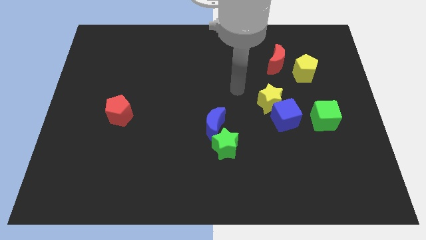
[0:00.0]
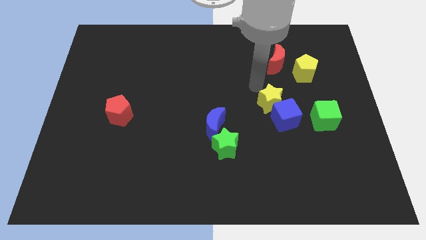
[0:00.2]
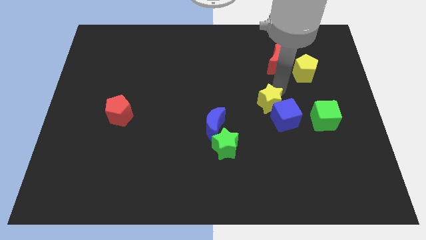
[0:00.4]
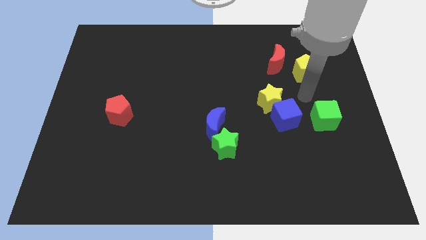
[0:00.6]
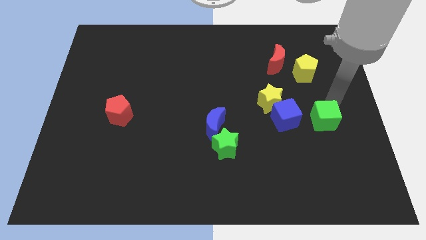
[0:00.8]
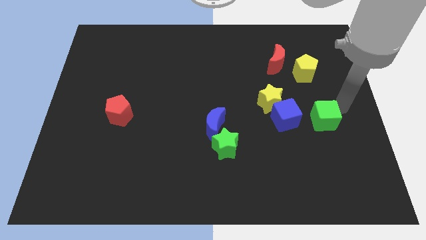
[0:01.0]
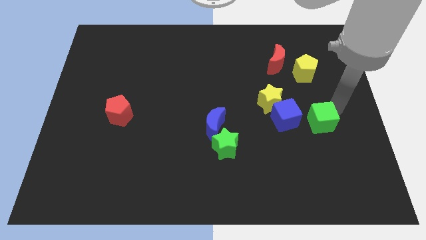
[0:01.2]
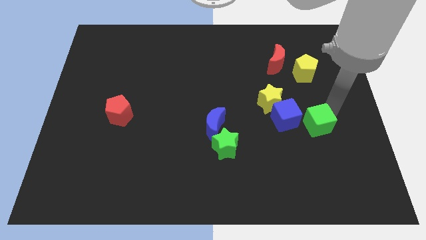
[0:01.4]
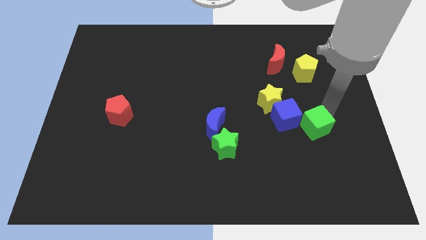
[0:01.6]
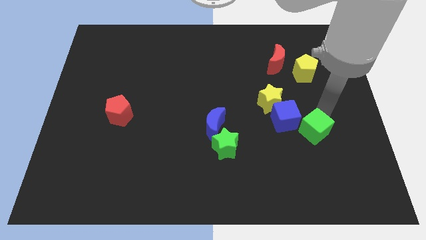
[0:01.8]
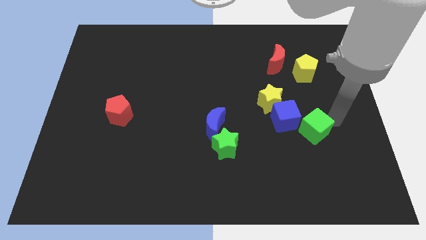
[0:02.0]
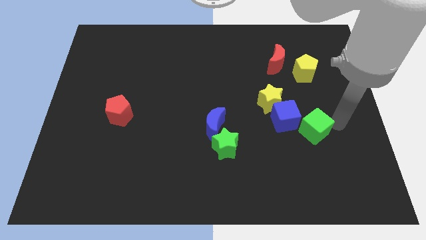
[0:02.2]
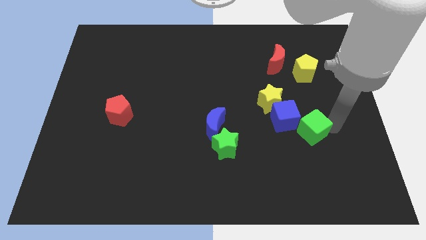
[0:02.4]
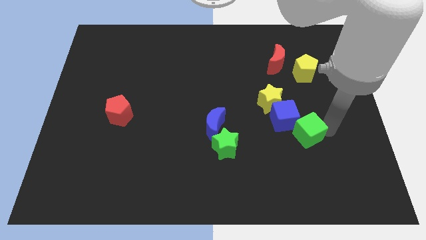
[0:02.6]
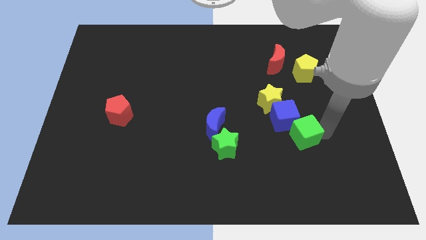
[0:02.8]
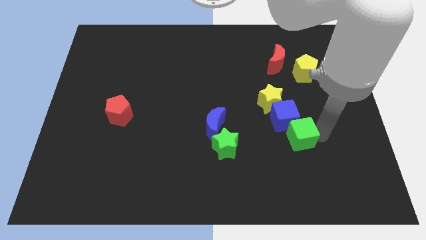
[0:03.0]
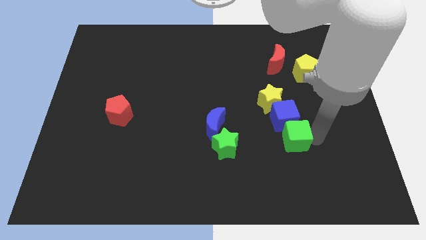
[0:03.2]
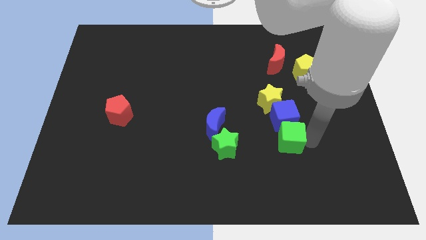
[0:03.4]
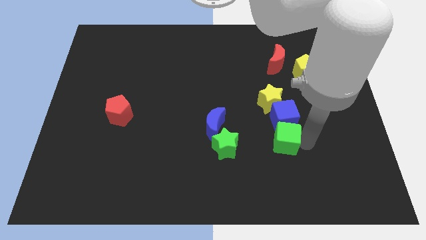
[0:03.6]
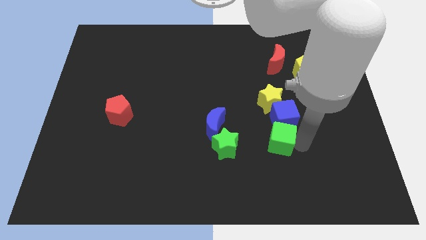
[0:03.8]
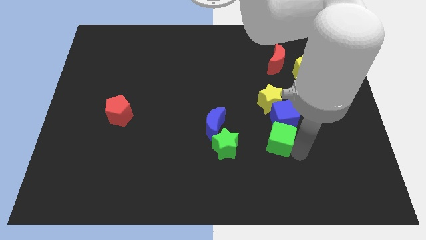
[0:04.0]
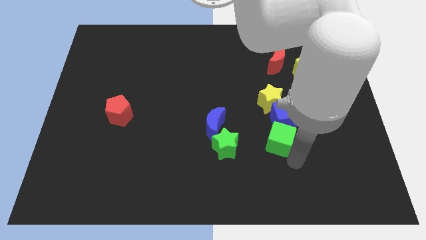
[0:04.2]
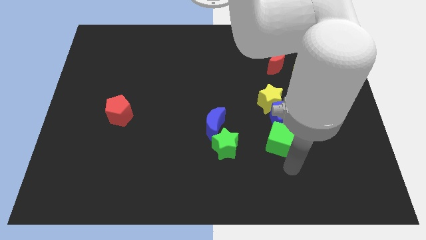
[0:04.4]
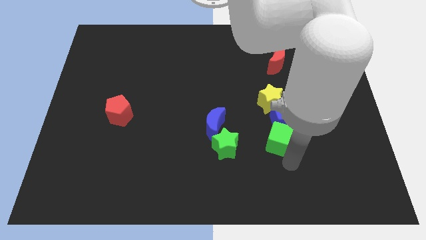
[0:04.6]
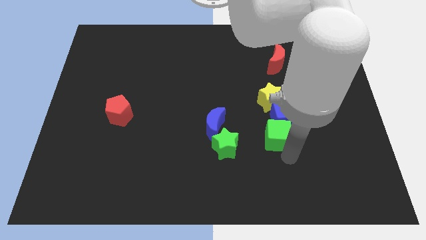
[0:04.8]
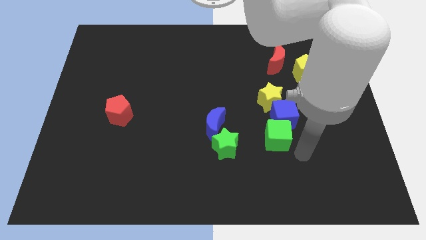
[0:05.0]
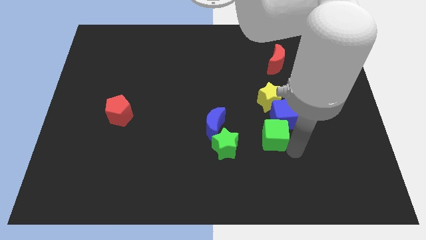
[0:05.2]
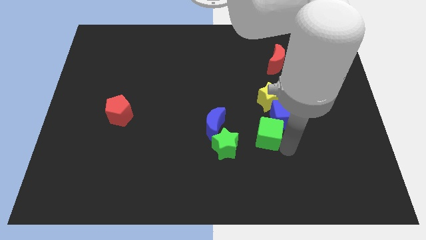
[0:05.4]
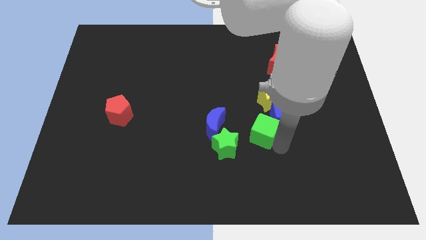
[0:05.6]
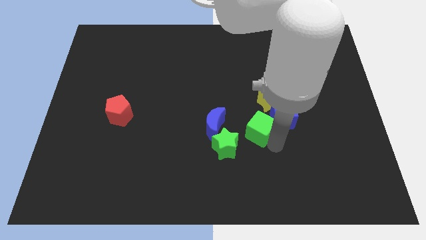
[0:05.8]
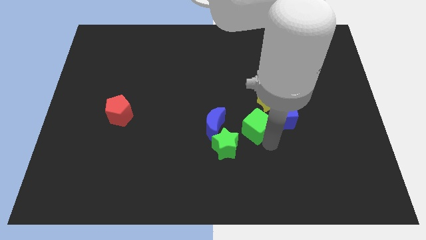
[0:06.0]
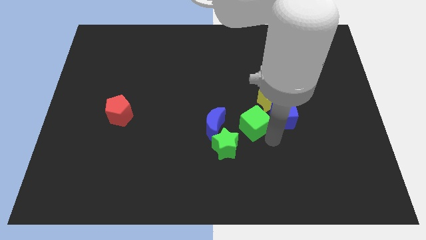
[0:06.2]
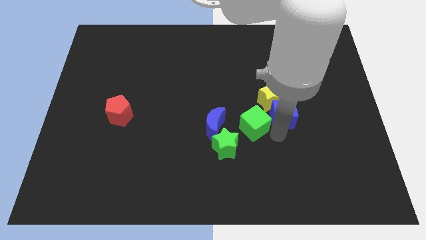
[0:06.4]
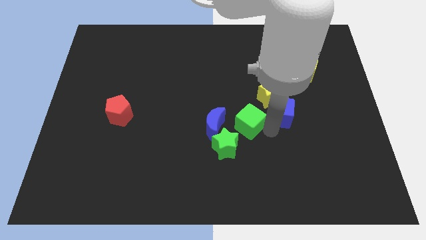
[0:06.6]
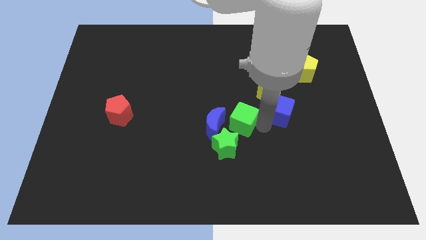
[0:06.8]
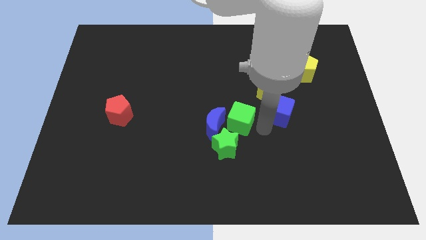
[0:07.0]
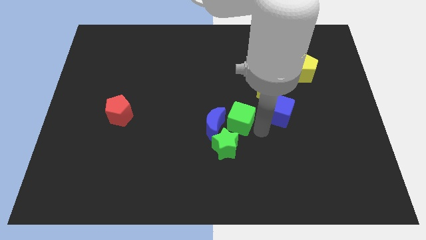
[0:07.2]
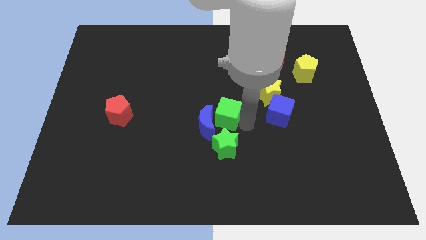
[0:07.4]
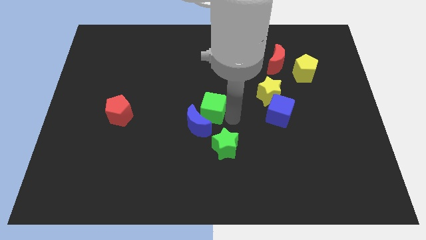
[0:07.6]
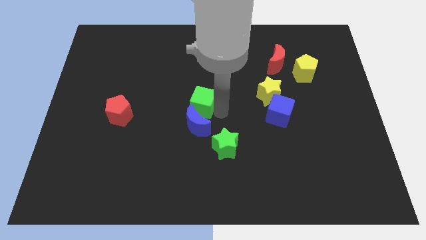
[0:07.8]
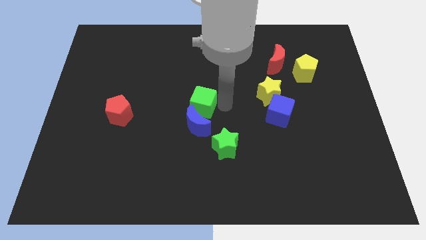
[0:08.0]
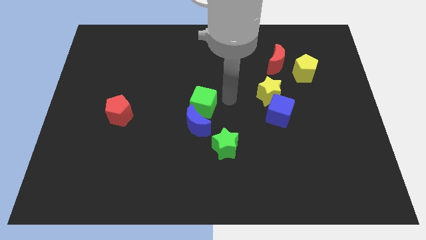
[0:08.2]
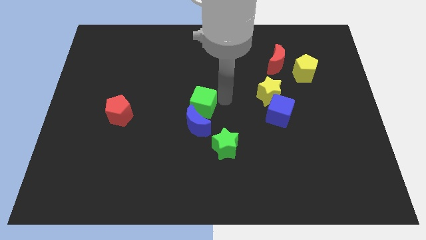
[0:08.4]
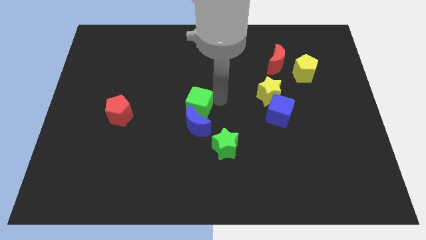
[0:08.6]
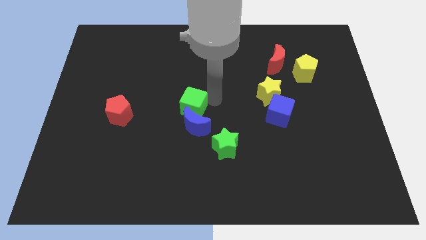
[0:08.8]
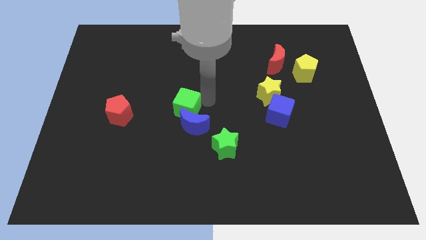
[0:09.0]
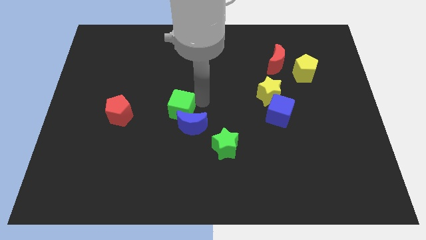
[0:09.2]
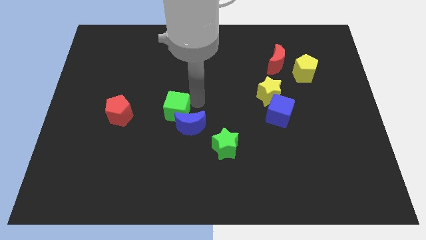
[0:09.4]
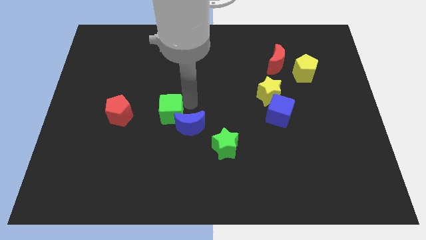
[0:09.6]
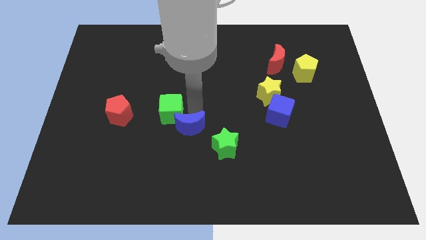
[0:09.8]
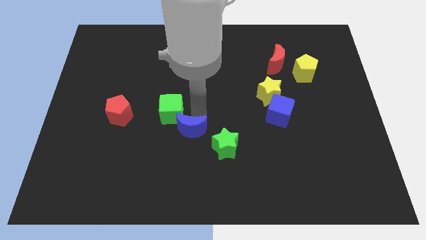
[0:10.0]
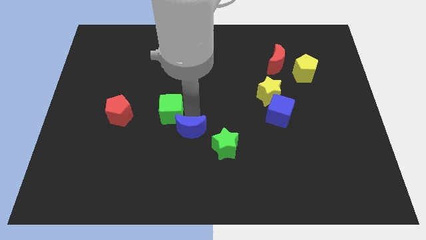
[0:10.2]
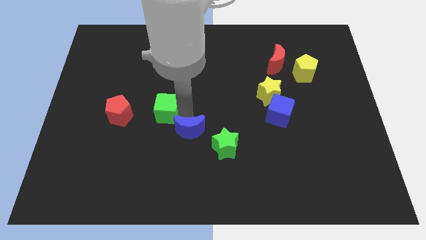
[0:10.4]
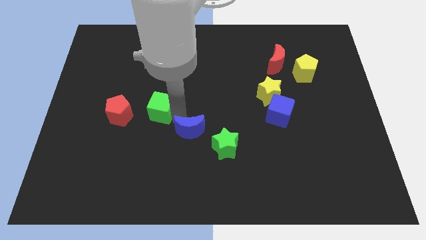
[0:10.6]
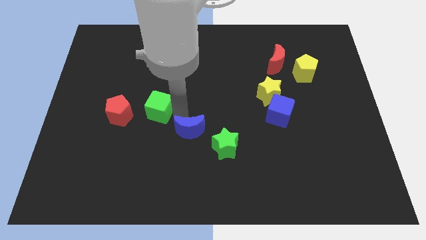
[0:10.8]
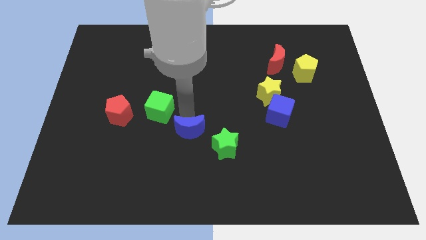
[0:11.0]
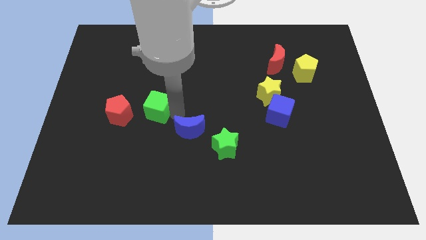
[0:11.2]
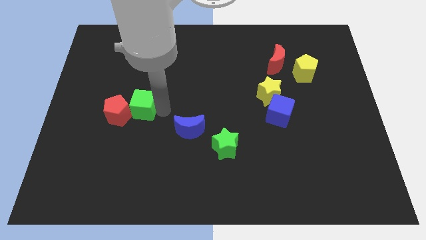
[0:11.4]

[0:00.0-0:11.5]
slide the green cube towards the red pentagon

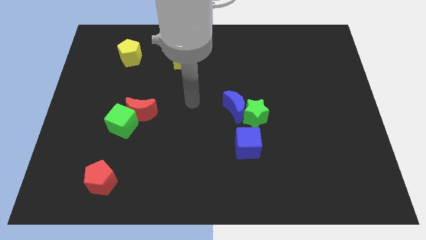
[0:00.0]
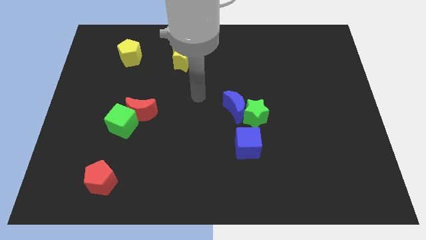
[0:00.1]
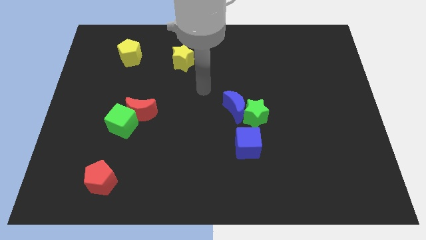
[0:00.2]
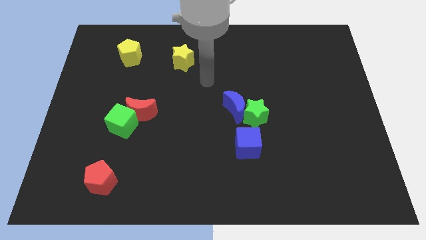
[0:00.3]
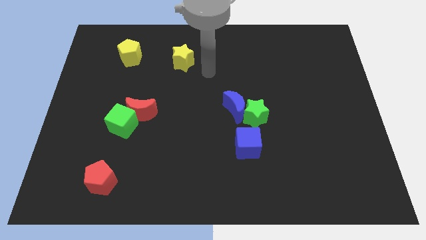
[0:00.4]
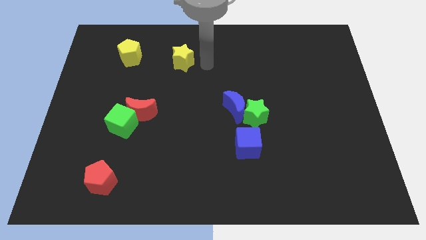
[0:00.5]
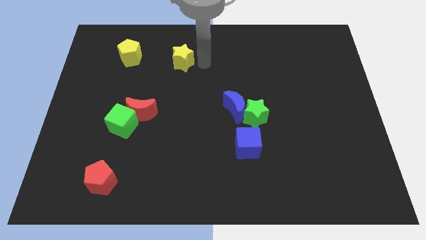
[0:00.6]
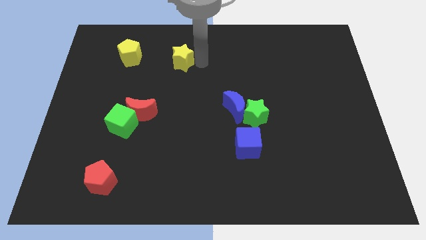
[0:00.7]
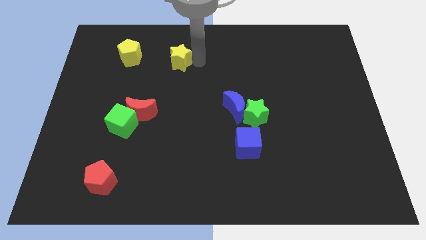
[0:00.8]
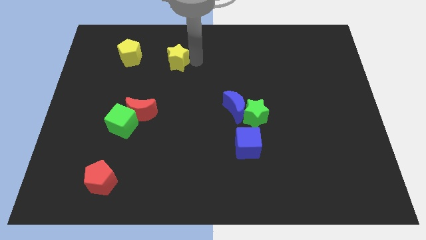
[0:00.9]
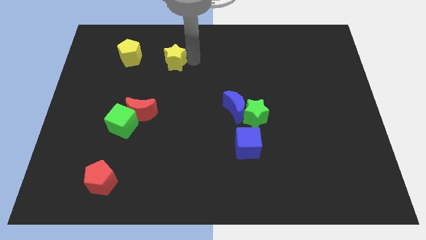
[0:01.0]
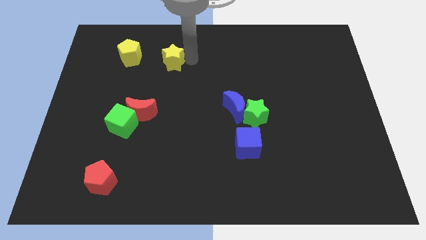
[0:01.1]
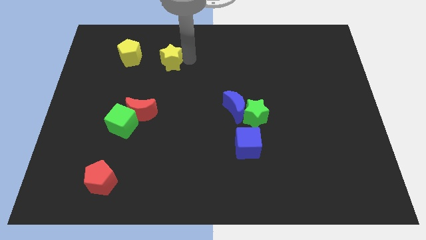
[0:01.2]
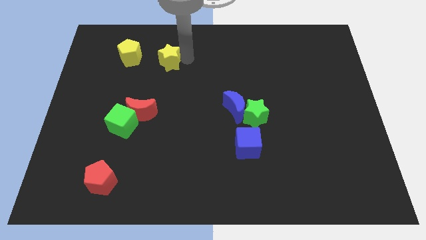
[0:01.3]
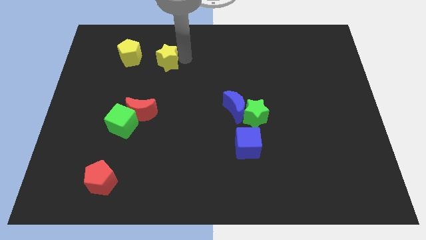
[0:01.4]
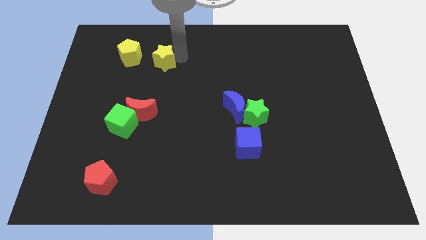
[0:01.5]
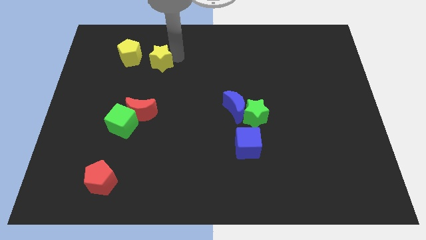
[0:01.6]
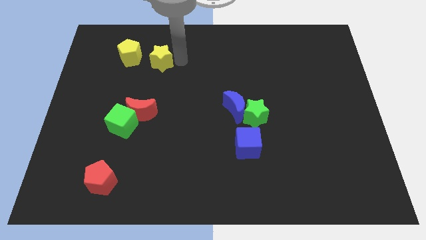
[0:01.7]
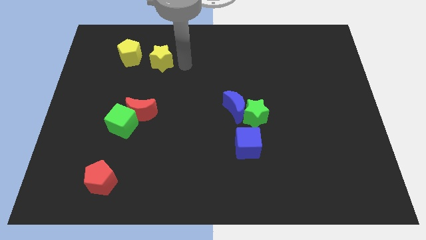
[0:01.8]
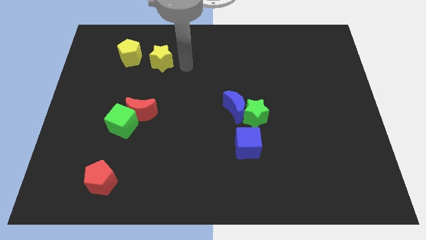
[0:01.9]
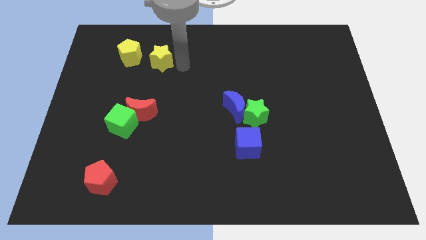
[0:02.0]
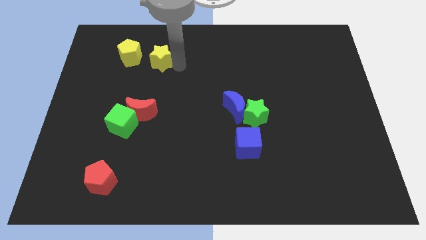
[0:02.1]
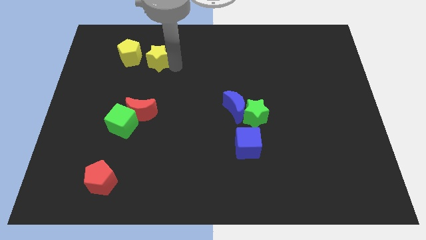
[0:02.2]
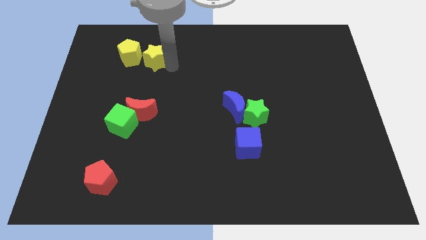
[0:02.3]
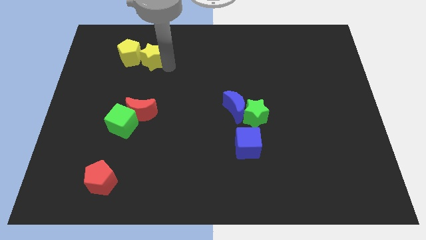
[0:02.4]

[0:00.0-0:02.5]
slide the yellow star close to the yellow pentagon
